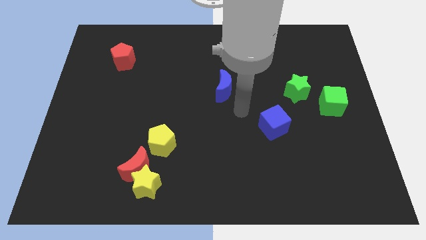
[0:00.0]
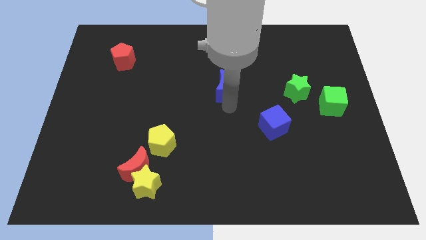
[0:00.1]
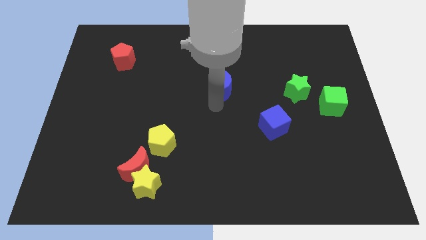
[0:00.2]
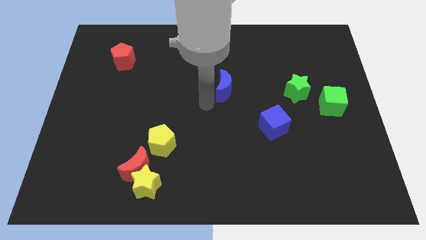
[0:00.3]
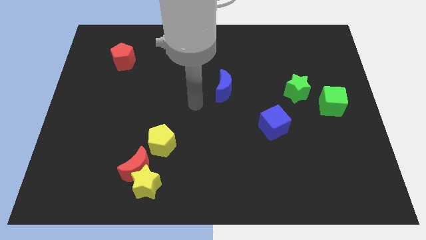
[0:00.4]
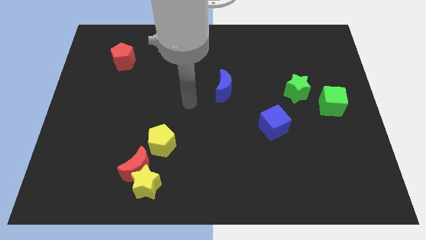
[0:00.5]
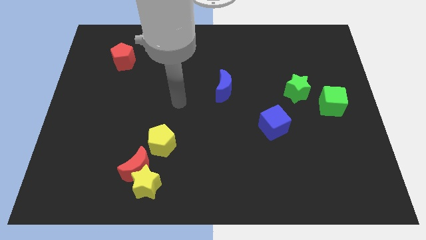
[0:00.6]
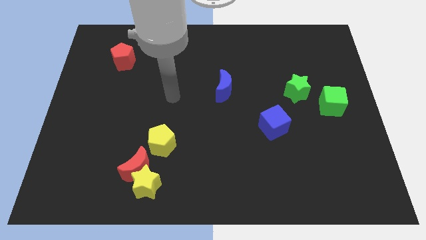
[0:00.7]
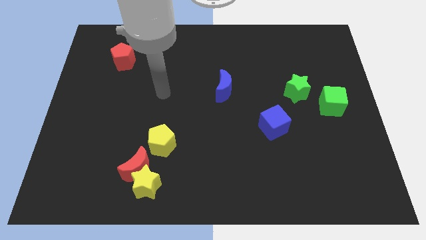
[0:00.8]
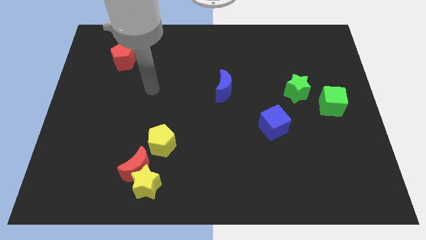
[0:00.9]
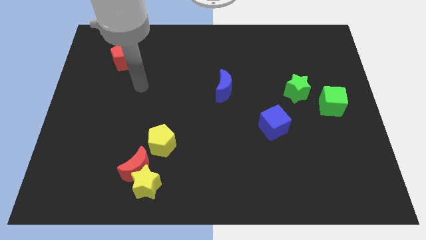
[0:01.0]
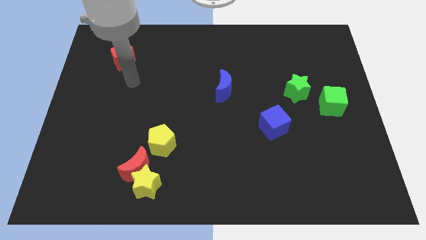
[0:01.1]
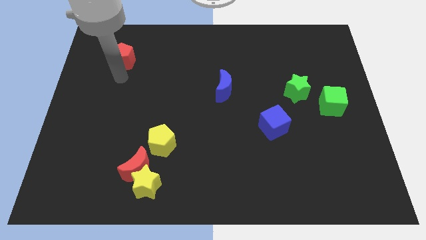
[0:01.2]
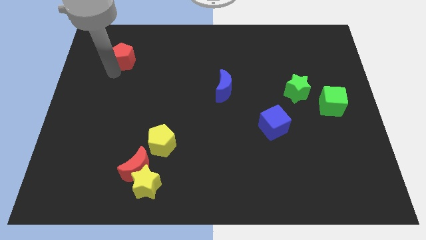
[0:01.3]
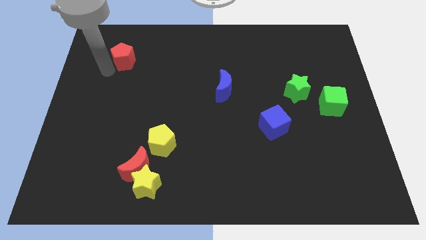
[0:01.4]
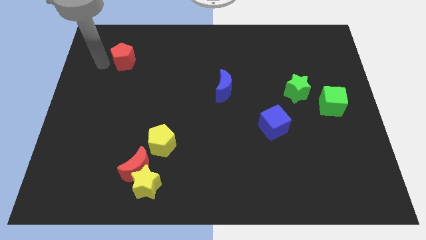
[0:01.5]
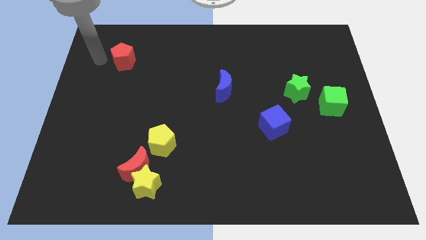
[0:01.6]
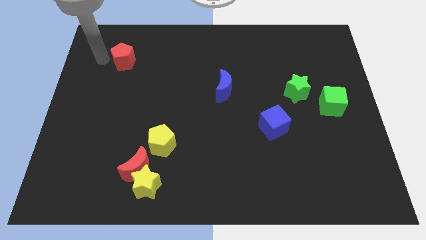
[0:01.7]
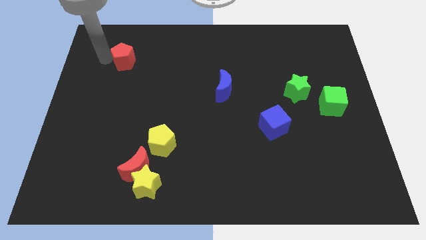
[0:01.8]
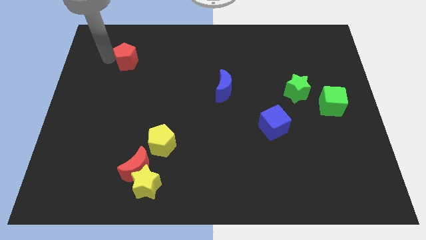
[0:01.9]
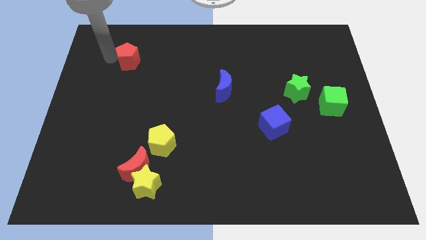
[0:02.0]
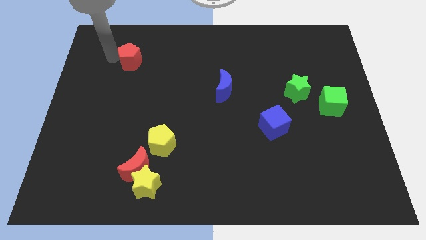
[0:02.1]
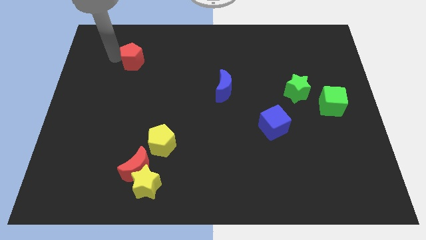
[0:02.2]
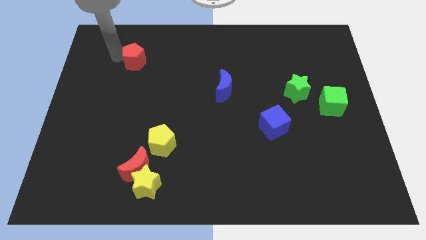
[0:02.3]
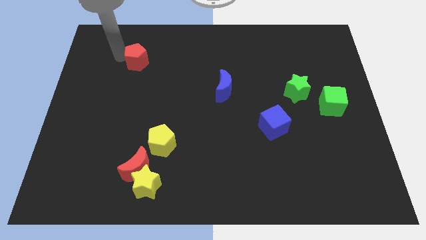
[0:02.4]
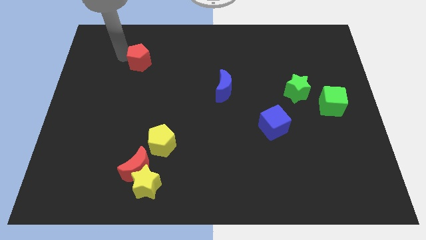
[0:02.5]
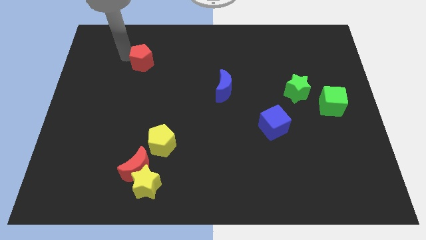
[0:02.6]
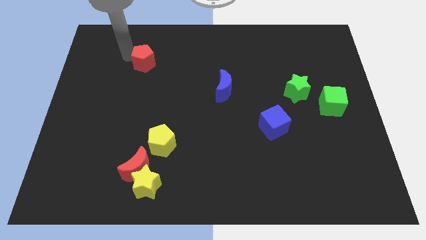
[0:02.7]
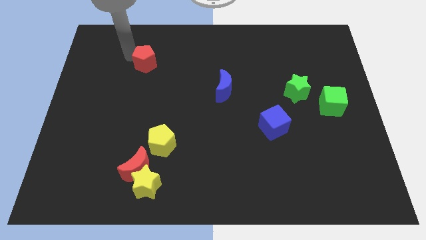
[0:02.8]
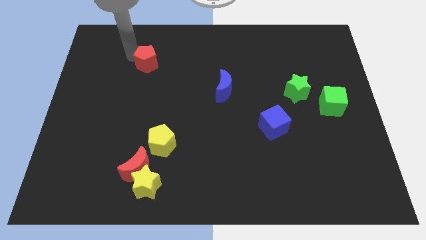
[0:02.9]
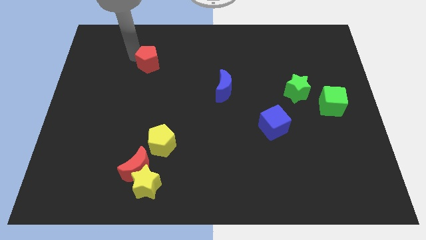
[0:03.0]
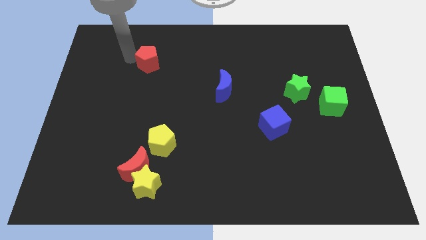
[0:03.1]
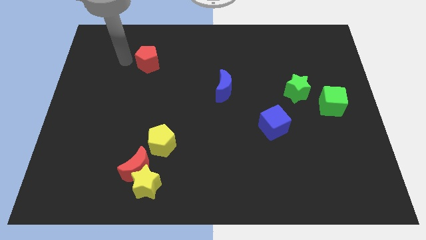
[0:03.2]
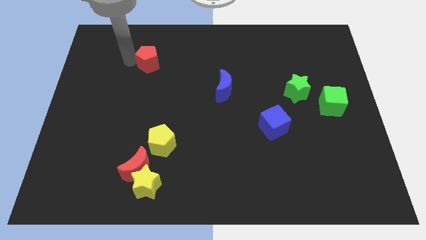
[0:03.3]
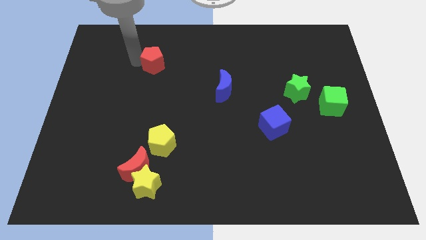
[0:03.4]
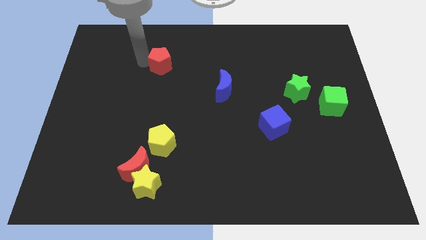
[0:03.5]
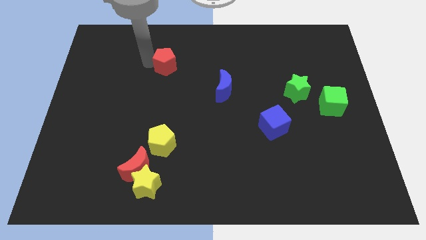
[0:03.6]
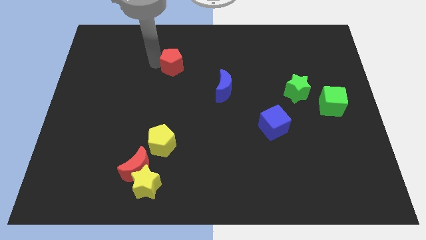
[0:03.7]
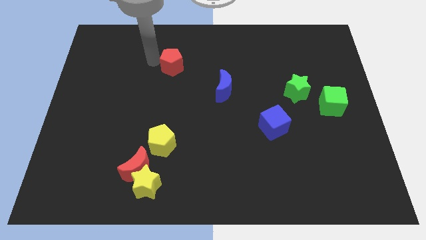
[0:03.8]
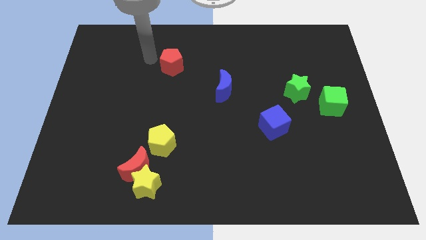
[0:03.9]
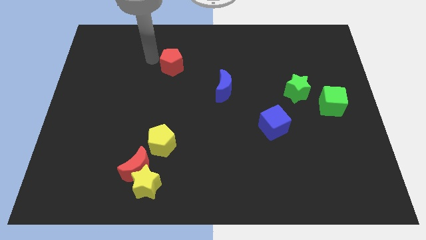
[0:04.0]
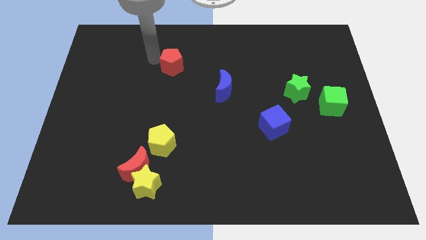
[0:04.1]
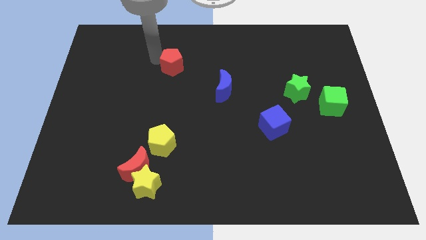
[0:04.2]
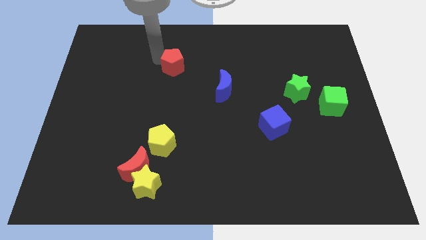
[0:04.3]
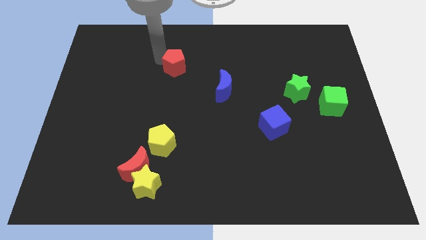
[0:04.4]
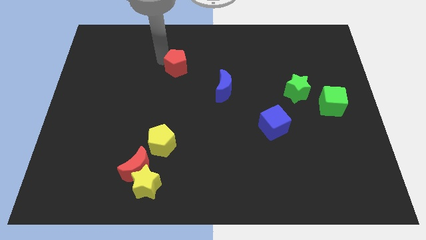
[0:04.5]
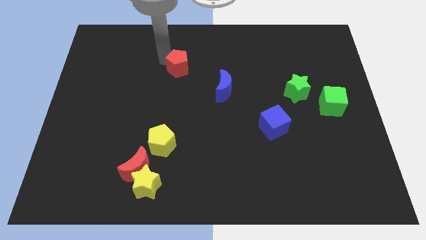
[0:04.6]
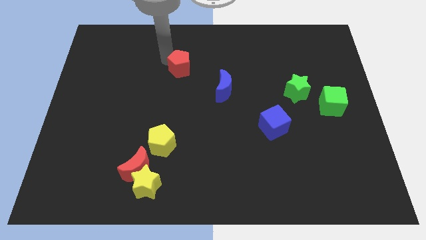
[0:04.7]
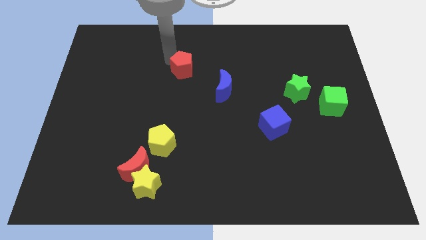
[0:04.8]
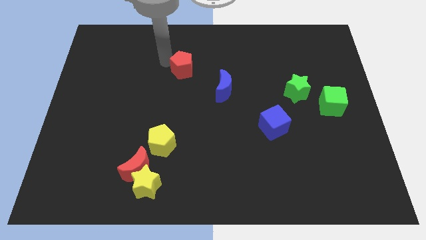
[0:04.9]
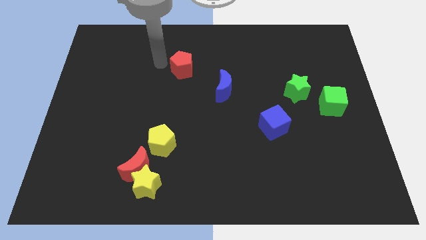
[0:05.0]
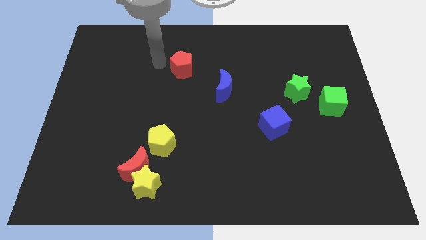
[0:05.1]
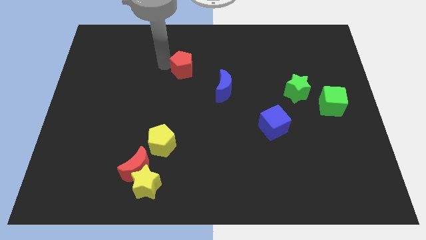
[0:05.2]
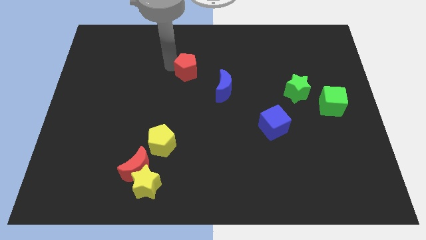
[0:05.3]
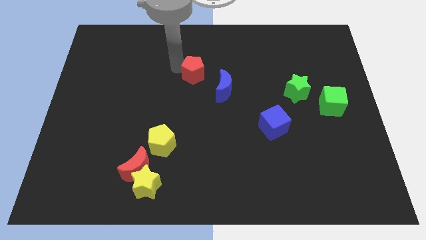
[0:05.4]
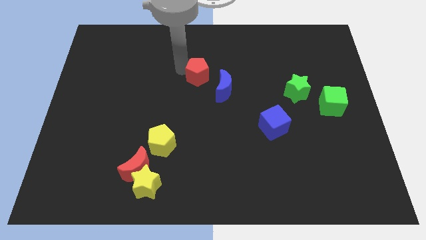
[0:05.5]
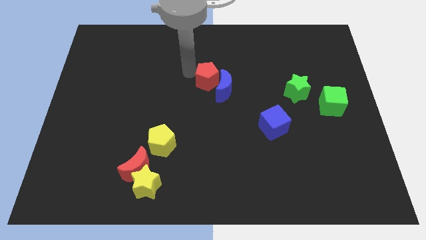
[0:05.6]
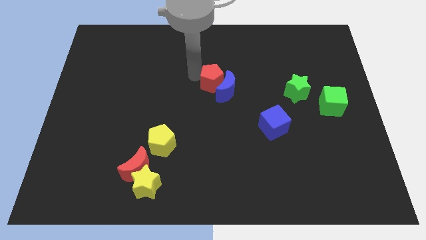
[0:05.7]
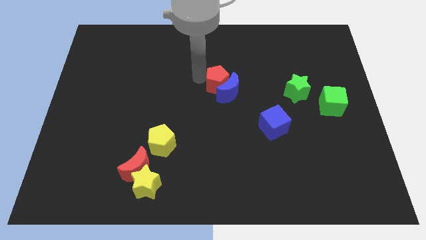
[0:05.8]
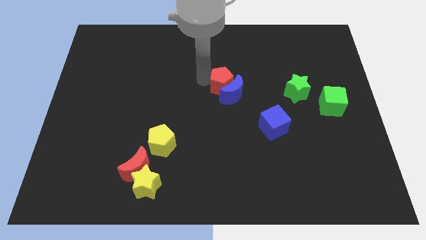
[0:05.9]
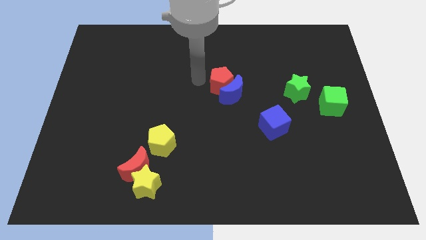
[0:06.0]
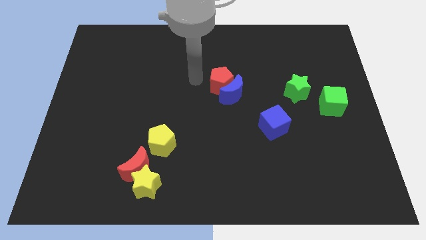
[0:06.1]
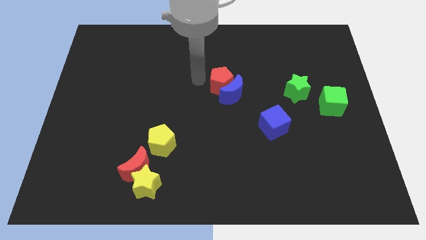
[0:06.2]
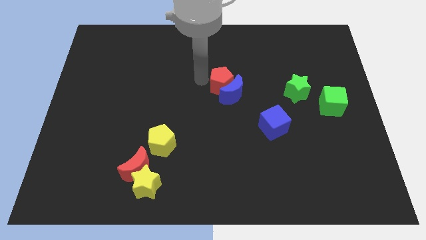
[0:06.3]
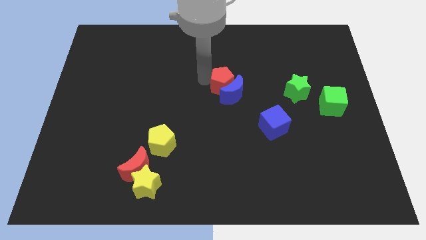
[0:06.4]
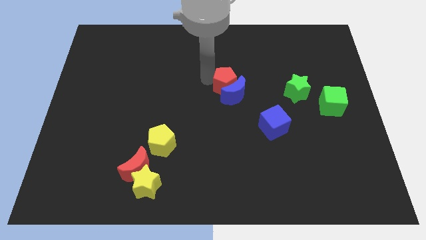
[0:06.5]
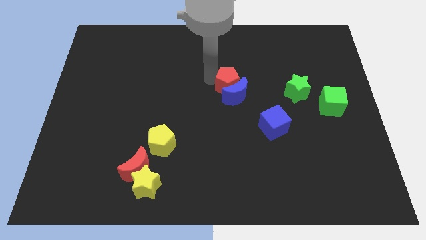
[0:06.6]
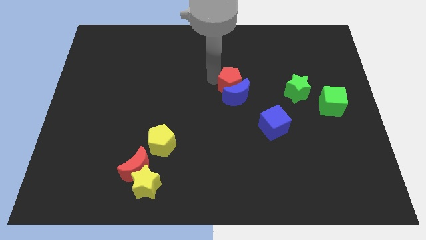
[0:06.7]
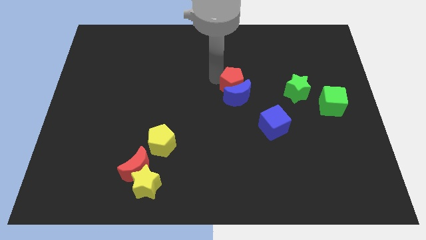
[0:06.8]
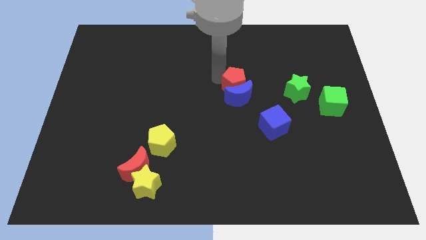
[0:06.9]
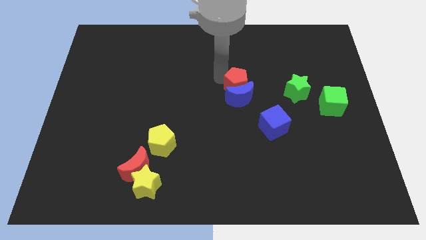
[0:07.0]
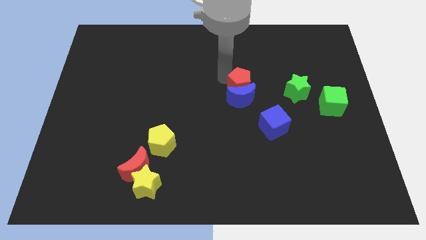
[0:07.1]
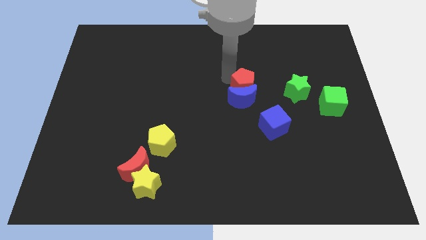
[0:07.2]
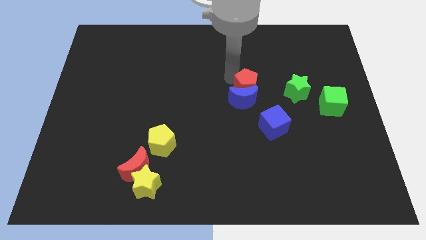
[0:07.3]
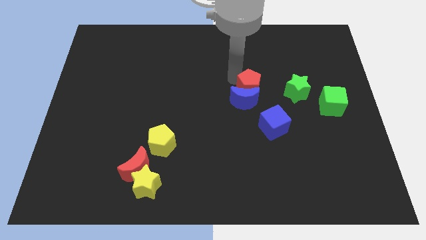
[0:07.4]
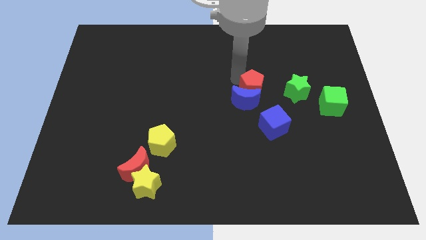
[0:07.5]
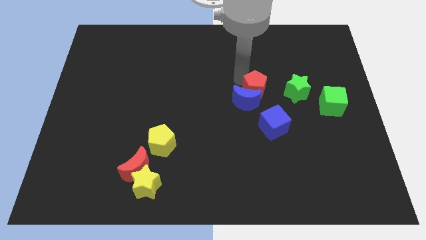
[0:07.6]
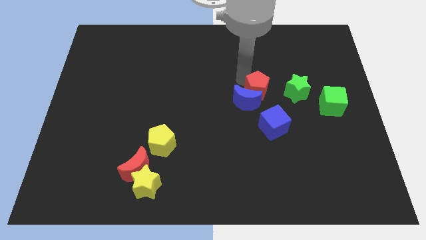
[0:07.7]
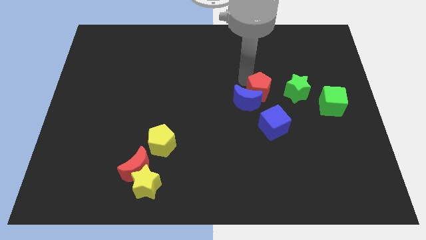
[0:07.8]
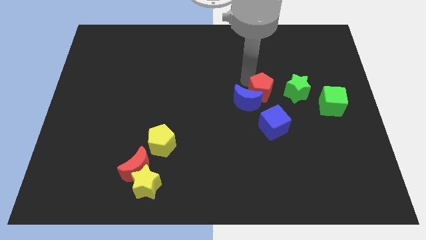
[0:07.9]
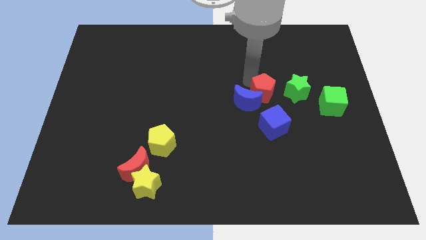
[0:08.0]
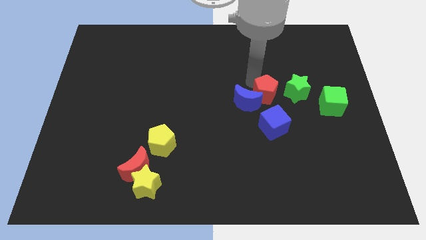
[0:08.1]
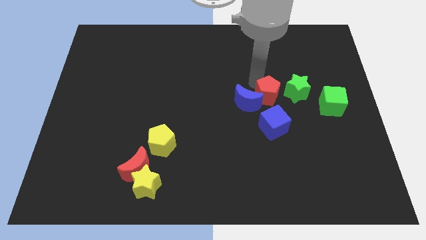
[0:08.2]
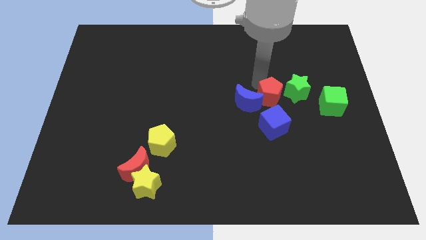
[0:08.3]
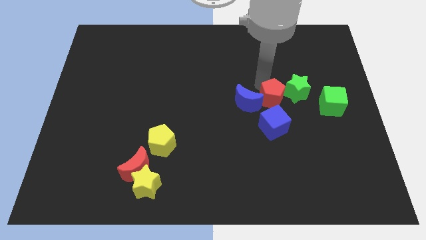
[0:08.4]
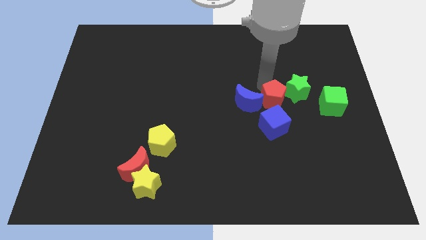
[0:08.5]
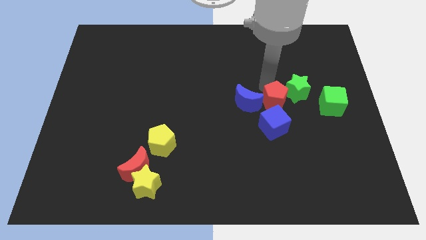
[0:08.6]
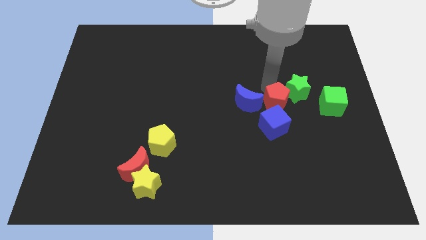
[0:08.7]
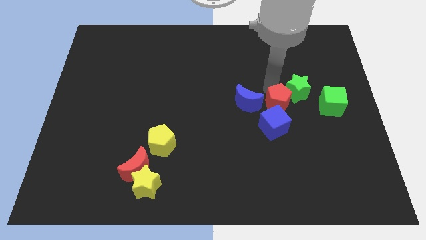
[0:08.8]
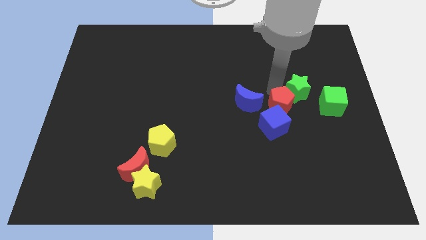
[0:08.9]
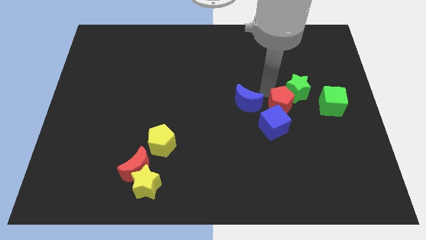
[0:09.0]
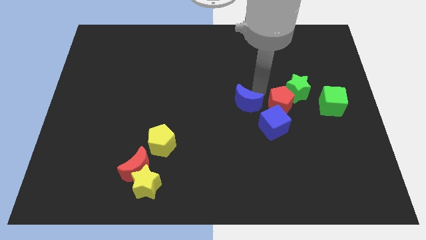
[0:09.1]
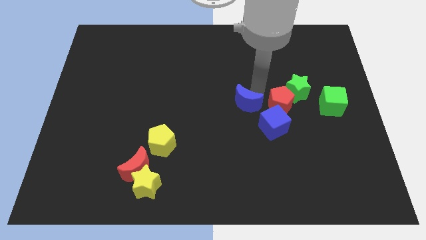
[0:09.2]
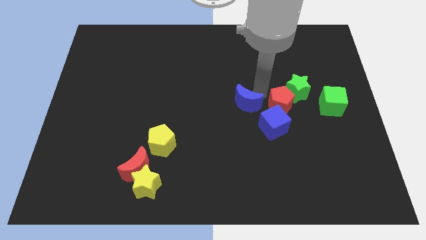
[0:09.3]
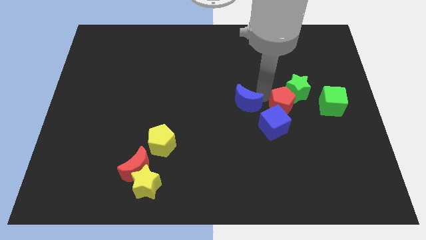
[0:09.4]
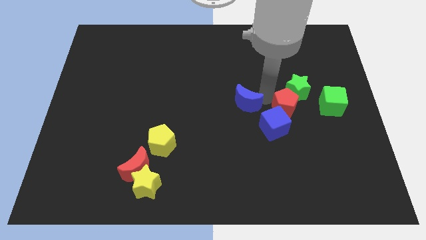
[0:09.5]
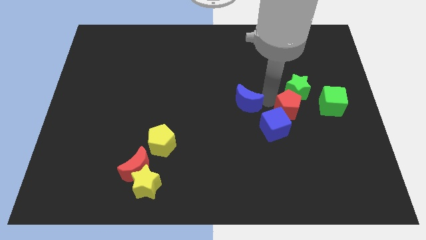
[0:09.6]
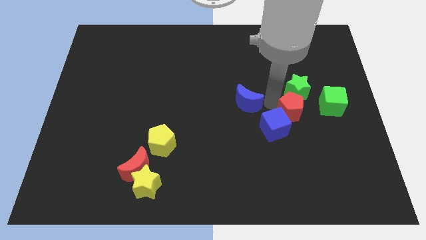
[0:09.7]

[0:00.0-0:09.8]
move the red pentagon to the right of the blue cube
